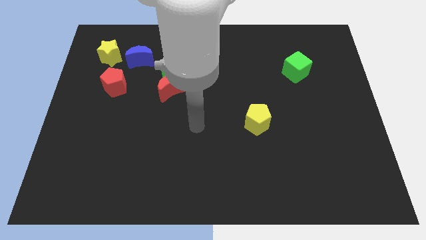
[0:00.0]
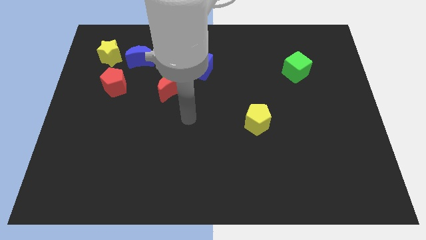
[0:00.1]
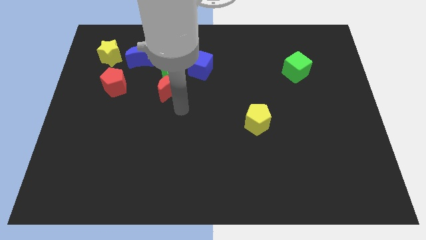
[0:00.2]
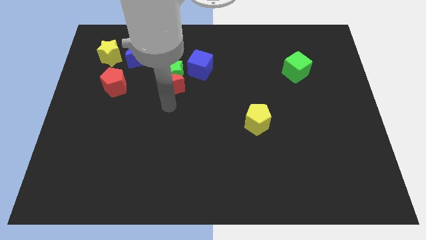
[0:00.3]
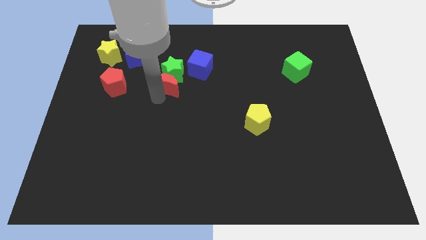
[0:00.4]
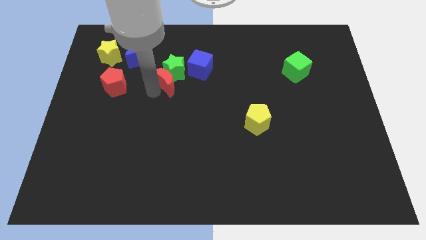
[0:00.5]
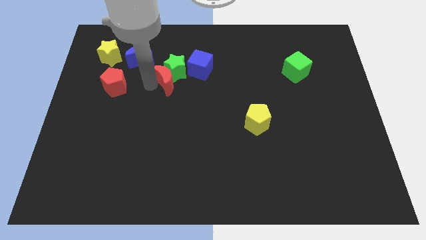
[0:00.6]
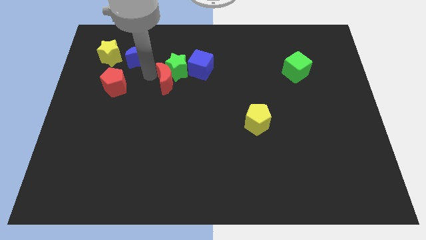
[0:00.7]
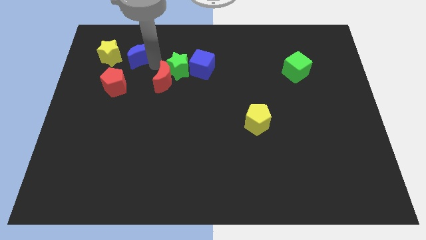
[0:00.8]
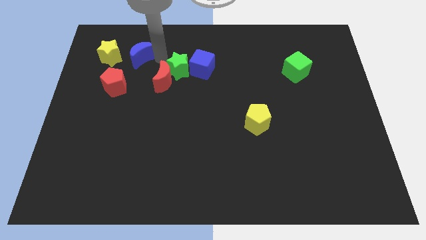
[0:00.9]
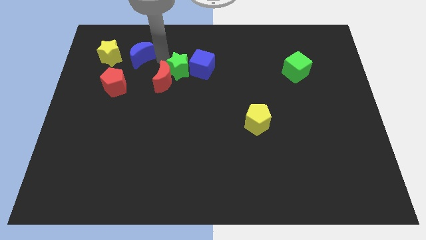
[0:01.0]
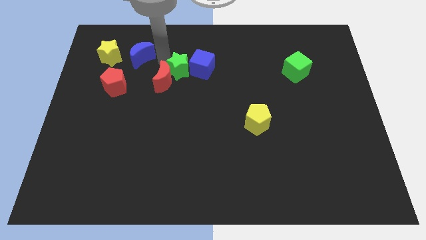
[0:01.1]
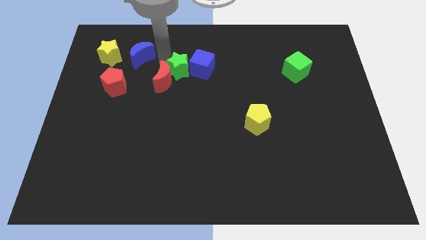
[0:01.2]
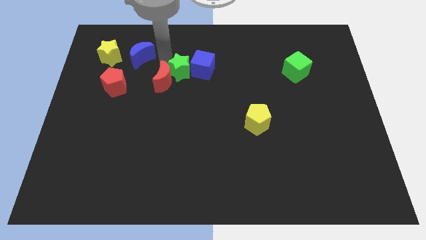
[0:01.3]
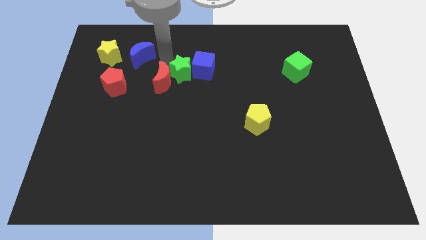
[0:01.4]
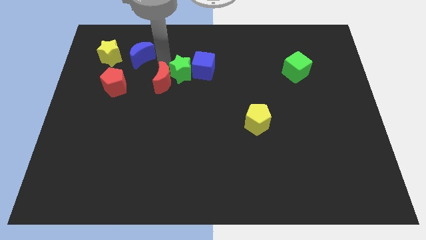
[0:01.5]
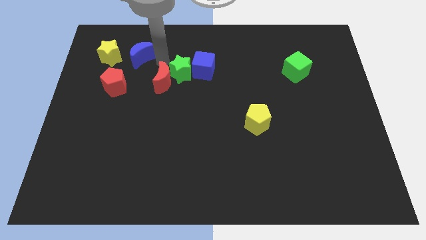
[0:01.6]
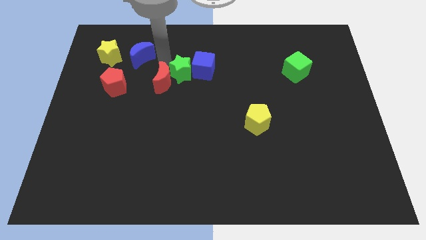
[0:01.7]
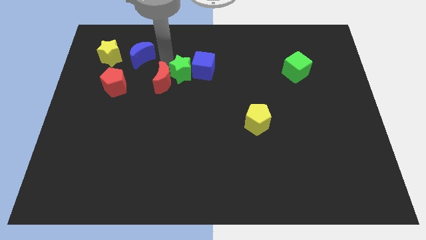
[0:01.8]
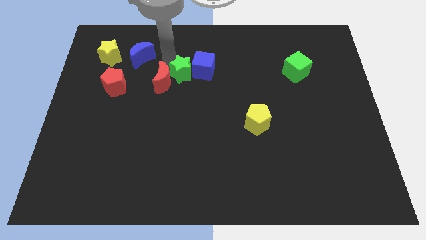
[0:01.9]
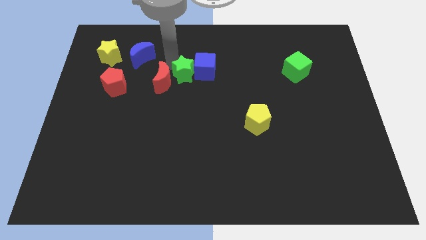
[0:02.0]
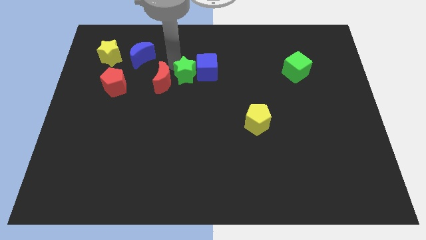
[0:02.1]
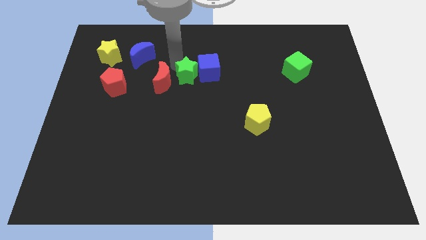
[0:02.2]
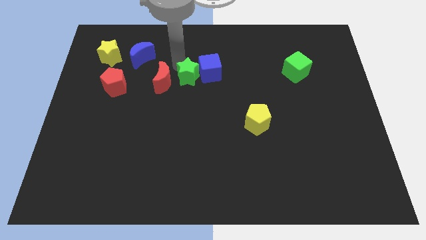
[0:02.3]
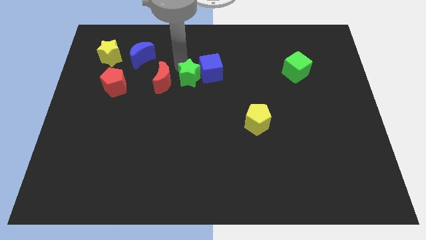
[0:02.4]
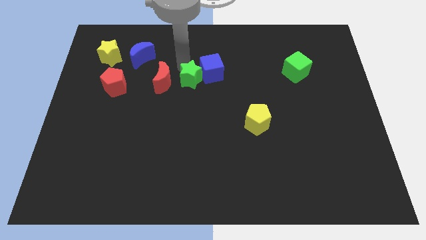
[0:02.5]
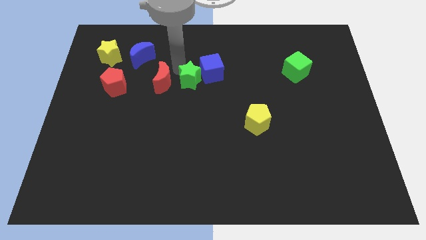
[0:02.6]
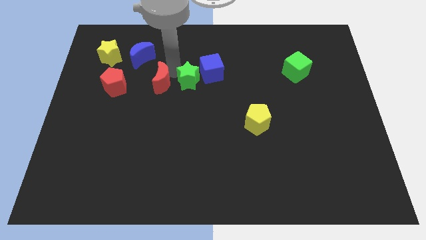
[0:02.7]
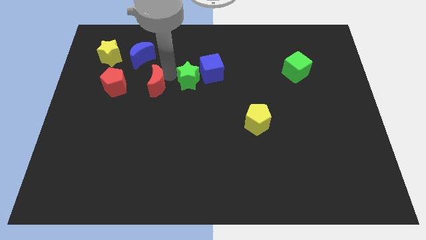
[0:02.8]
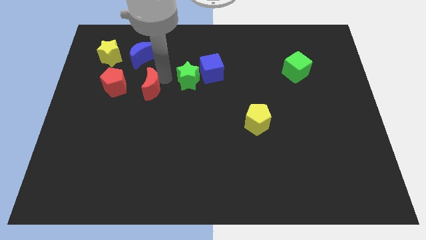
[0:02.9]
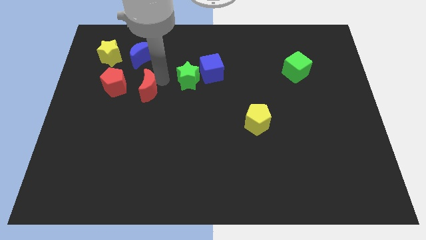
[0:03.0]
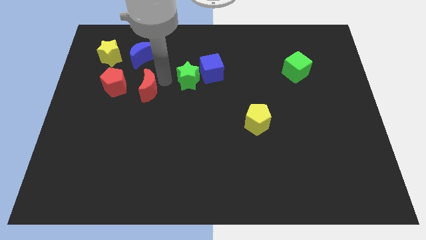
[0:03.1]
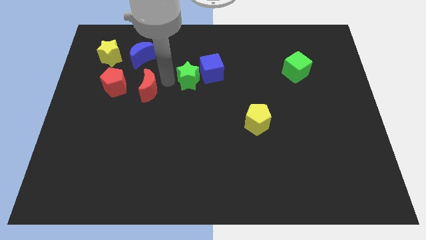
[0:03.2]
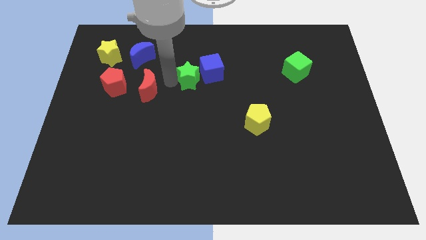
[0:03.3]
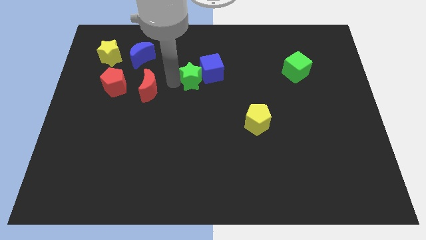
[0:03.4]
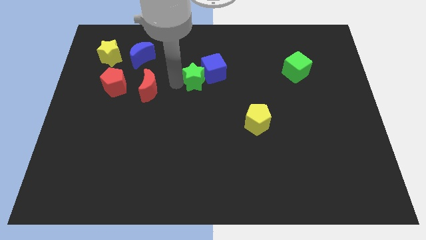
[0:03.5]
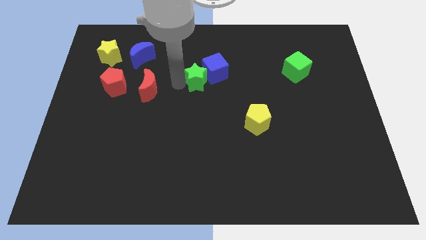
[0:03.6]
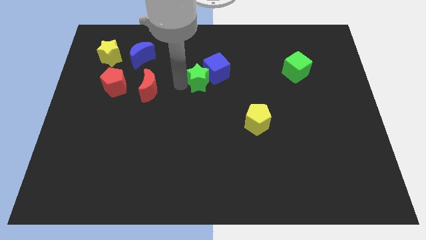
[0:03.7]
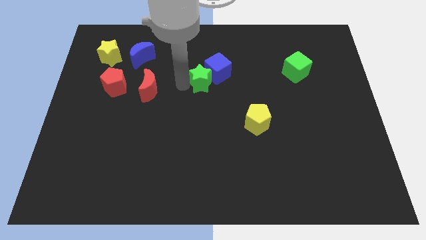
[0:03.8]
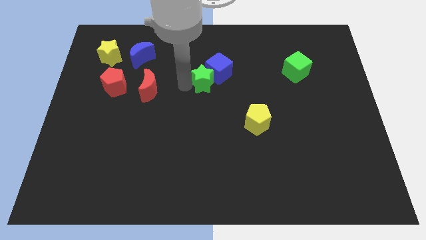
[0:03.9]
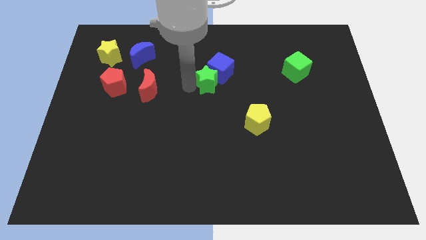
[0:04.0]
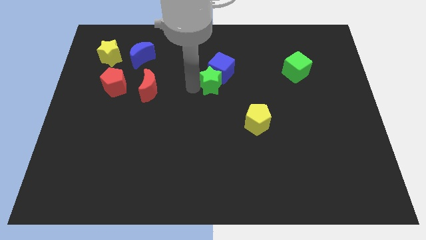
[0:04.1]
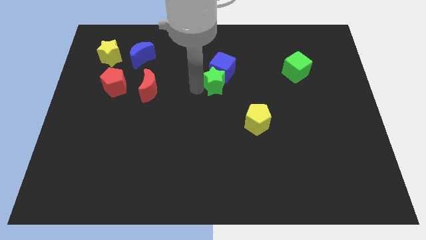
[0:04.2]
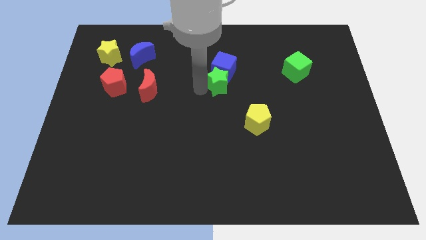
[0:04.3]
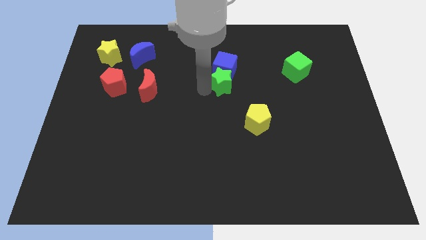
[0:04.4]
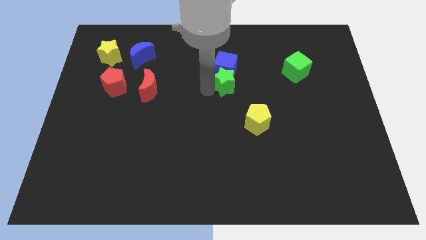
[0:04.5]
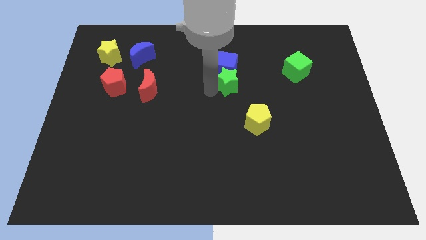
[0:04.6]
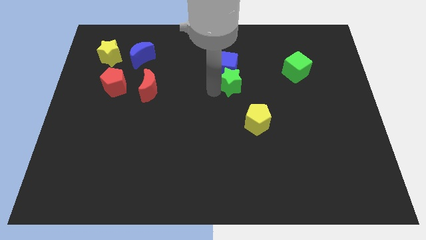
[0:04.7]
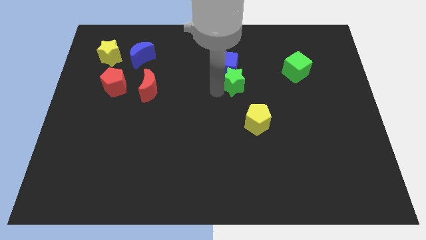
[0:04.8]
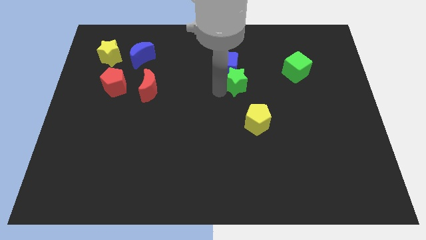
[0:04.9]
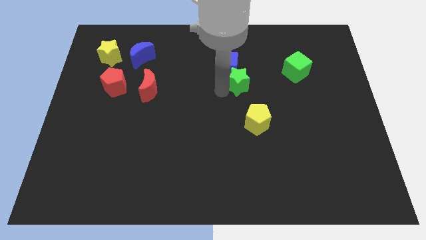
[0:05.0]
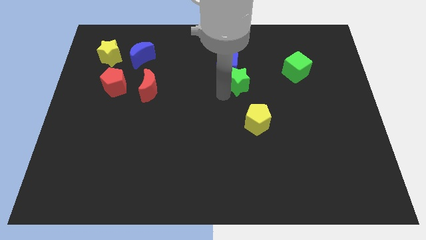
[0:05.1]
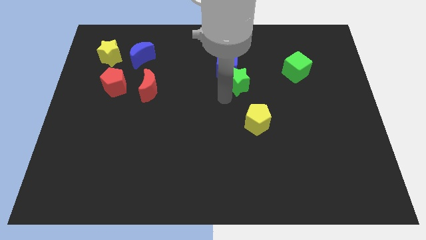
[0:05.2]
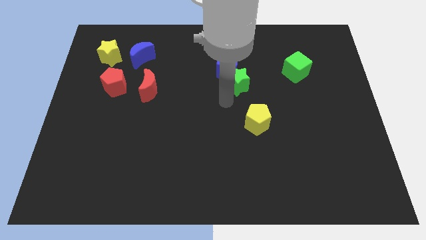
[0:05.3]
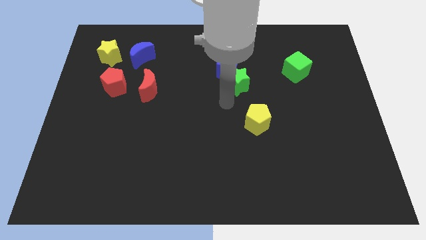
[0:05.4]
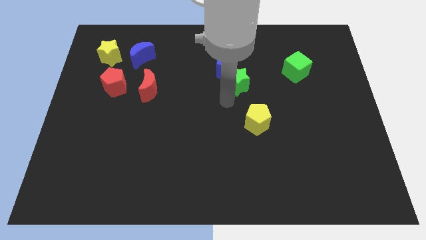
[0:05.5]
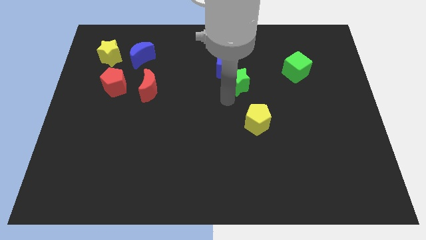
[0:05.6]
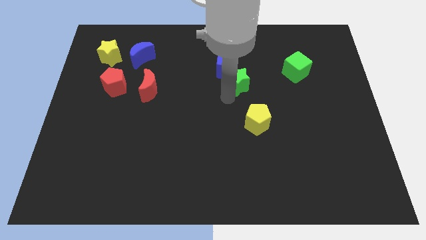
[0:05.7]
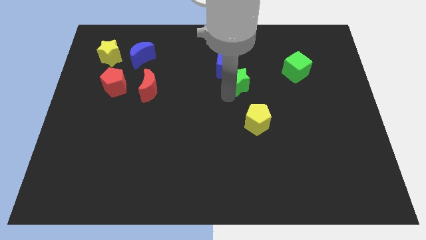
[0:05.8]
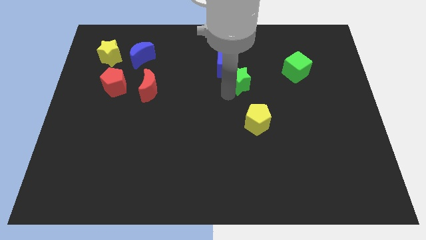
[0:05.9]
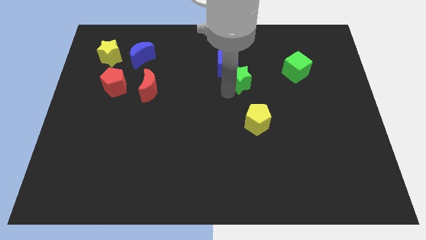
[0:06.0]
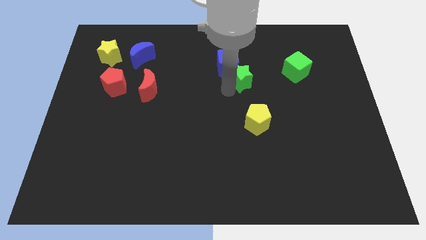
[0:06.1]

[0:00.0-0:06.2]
slide the green star to the left side of the green cube

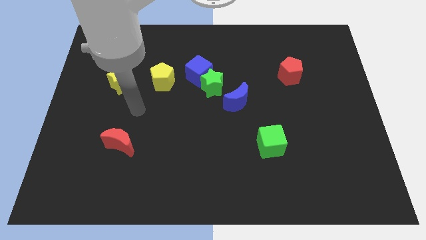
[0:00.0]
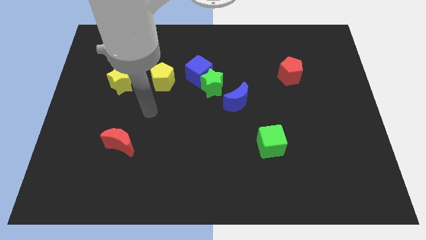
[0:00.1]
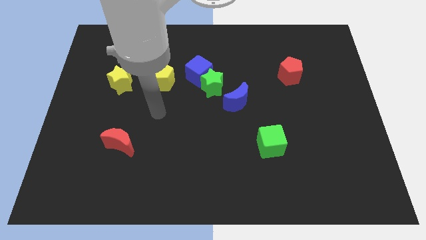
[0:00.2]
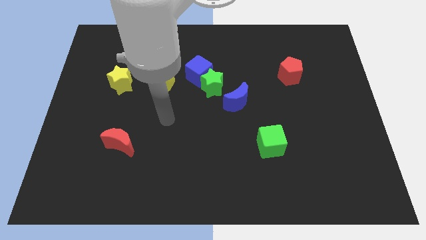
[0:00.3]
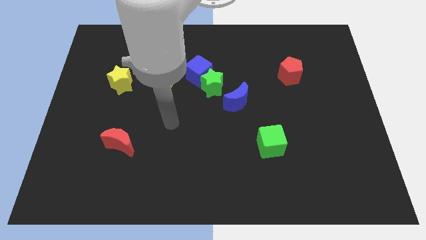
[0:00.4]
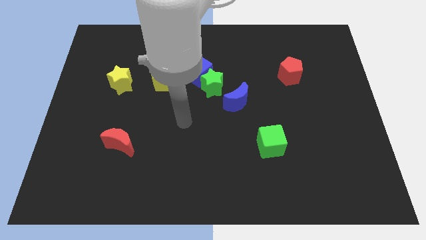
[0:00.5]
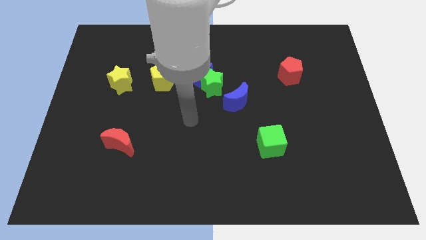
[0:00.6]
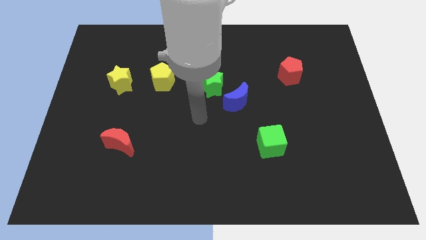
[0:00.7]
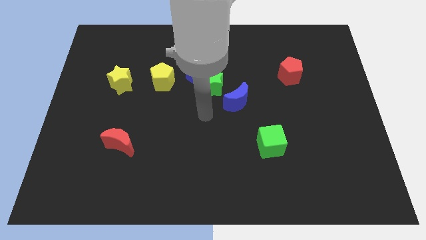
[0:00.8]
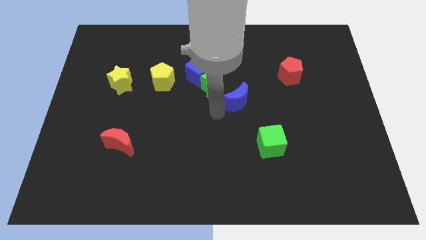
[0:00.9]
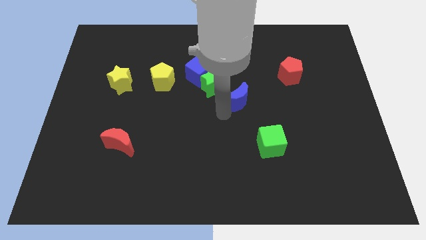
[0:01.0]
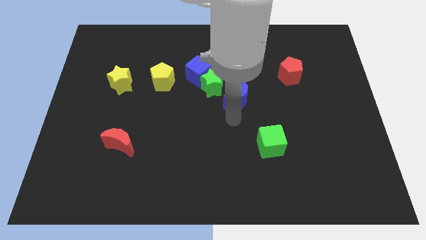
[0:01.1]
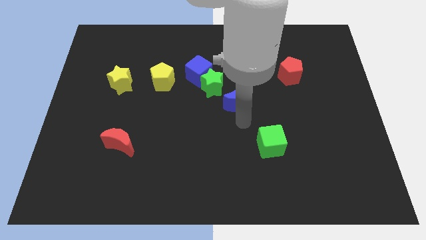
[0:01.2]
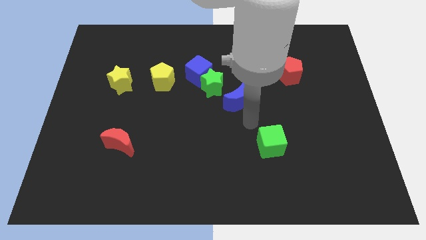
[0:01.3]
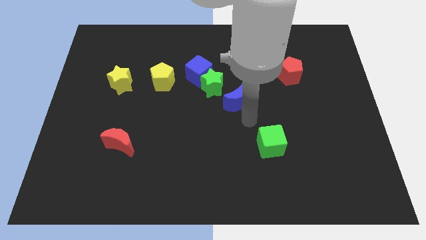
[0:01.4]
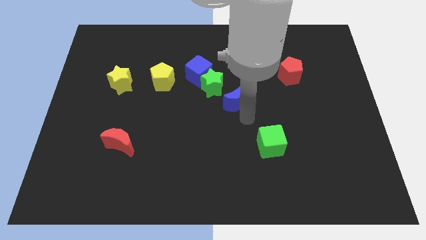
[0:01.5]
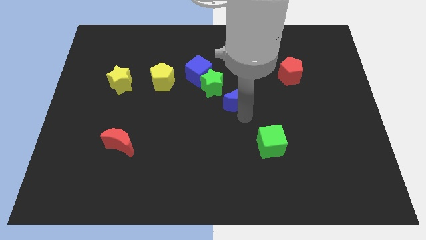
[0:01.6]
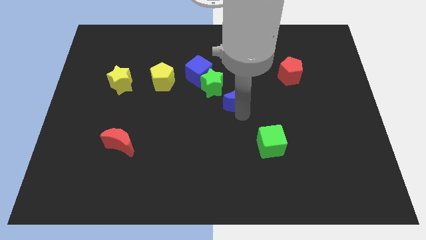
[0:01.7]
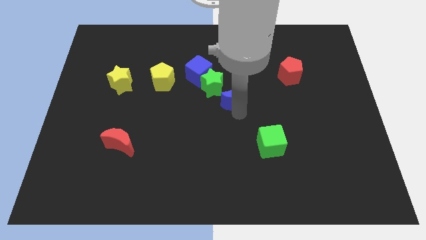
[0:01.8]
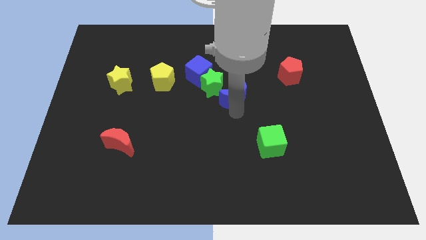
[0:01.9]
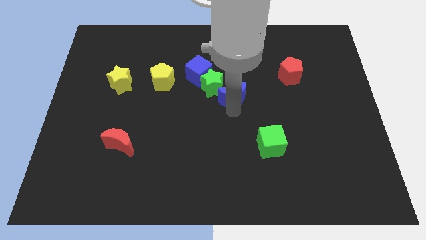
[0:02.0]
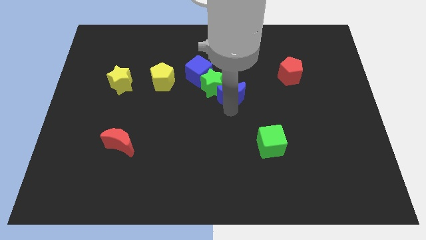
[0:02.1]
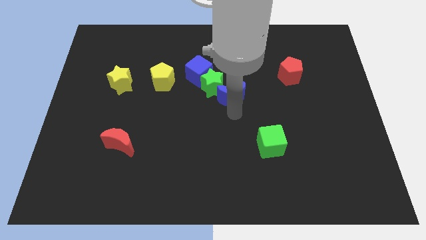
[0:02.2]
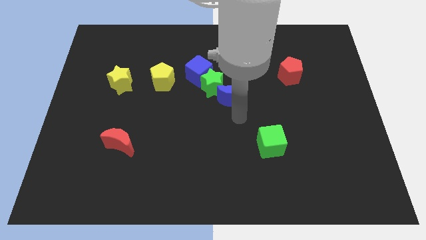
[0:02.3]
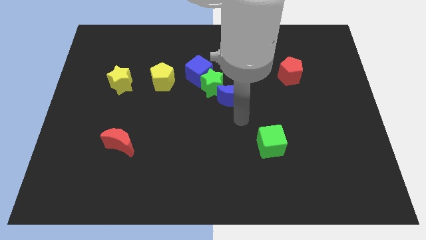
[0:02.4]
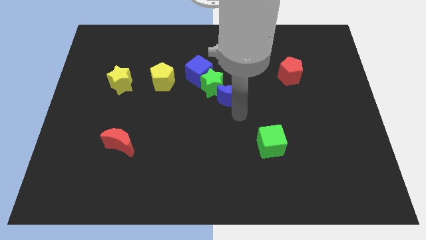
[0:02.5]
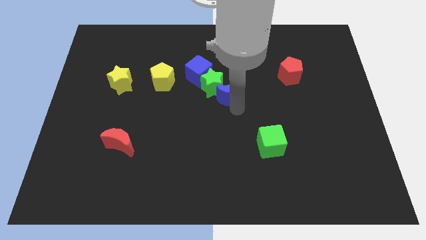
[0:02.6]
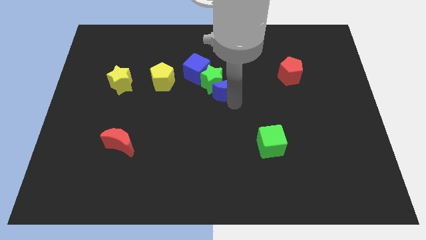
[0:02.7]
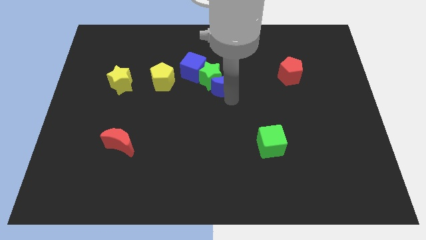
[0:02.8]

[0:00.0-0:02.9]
slide the blue moon to the right side of the yellow pentagon
